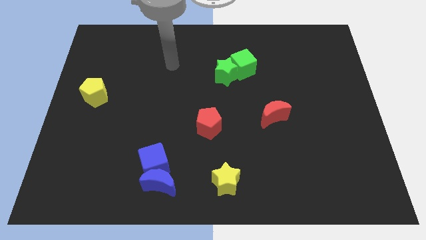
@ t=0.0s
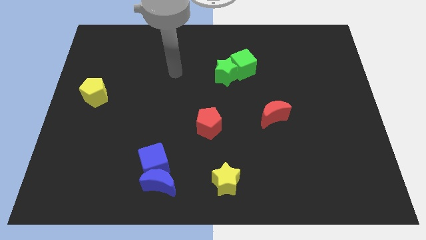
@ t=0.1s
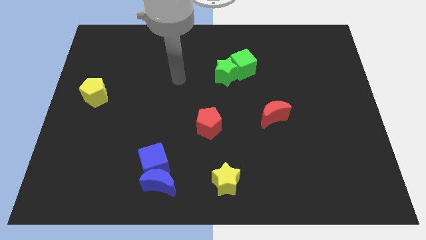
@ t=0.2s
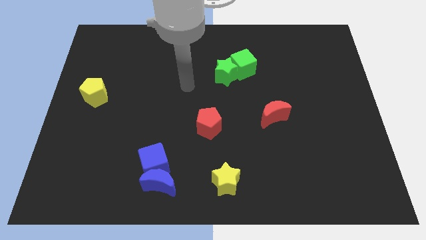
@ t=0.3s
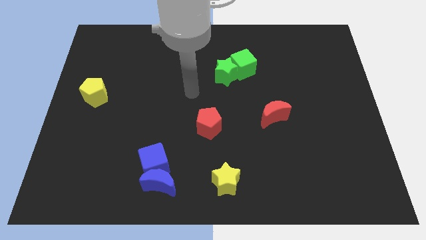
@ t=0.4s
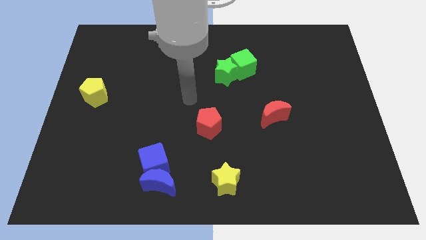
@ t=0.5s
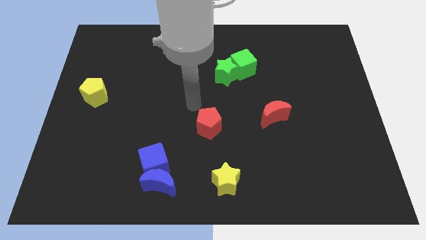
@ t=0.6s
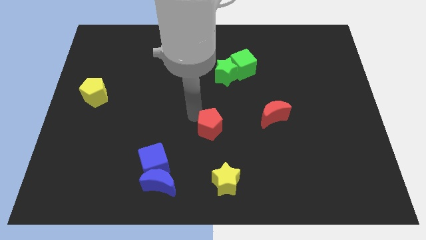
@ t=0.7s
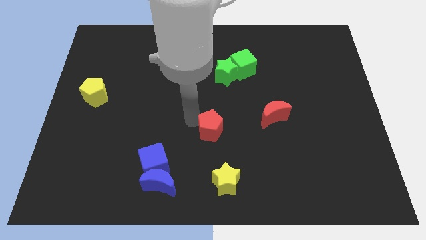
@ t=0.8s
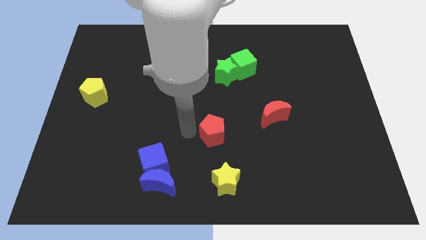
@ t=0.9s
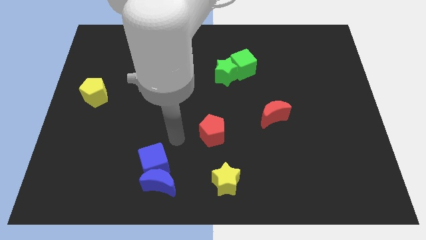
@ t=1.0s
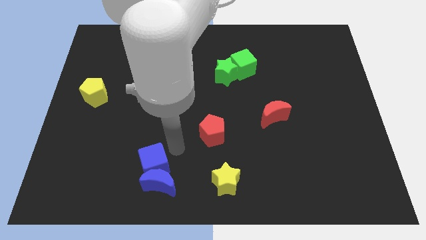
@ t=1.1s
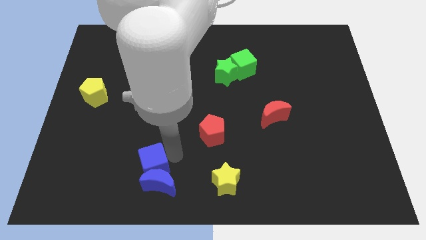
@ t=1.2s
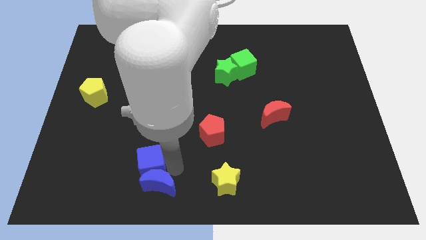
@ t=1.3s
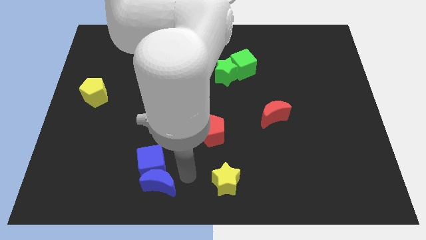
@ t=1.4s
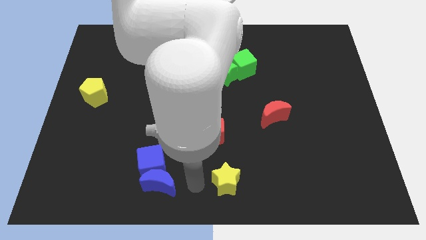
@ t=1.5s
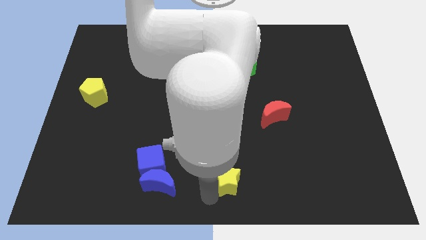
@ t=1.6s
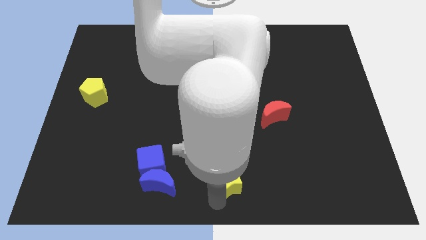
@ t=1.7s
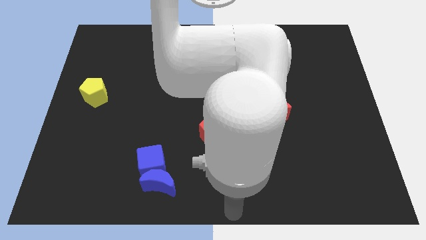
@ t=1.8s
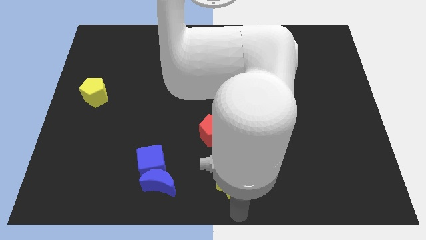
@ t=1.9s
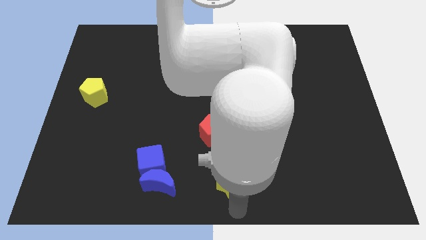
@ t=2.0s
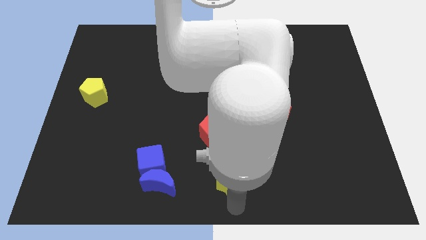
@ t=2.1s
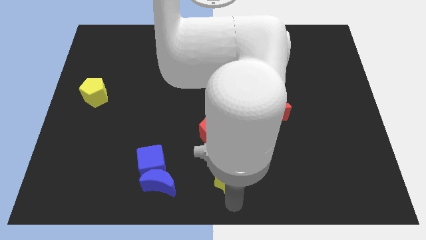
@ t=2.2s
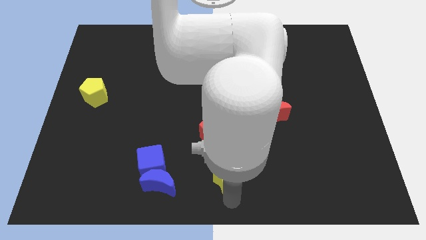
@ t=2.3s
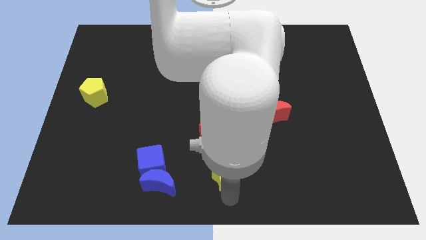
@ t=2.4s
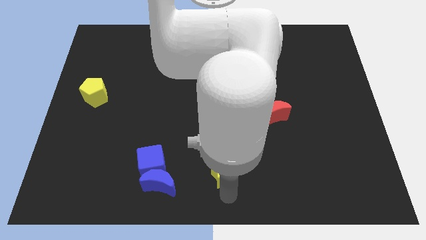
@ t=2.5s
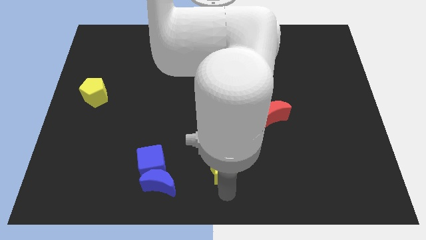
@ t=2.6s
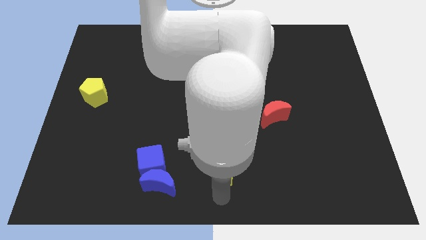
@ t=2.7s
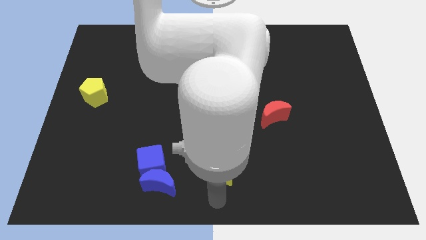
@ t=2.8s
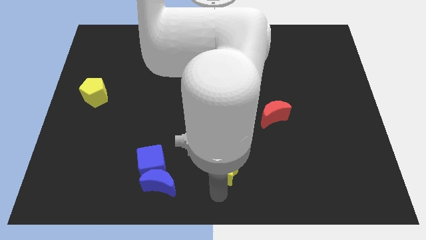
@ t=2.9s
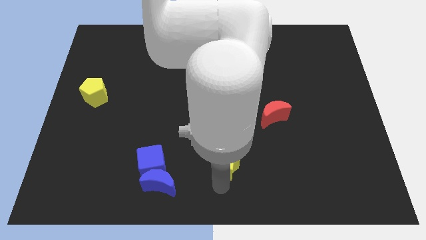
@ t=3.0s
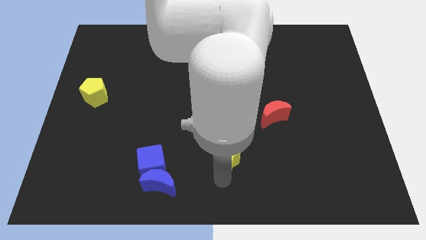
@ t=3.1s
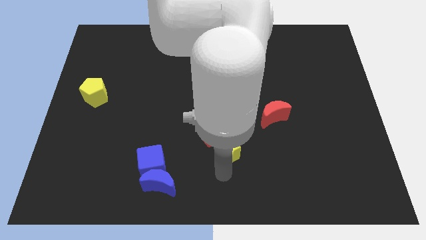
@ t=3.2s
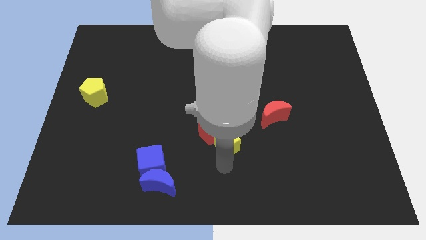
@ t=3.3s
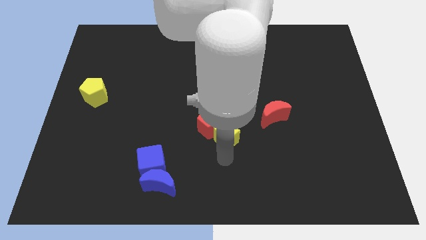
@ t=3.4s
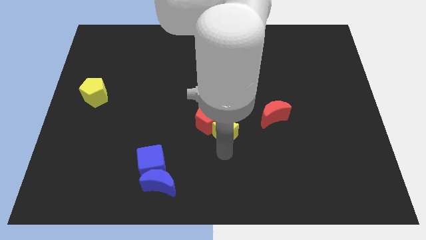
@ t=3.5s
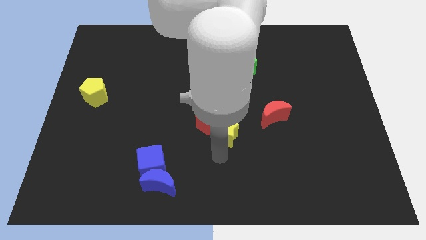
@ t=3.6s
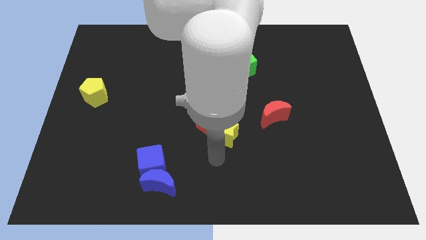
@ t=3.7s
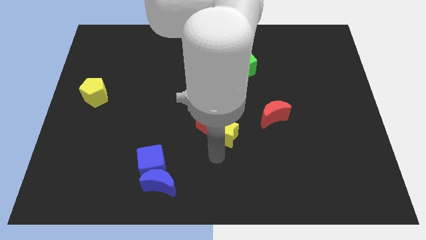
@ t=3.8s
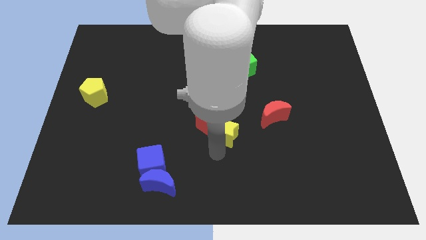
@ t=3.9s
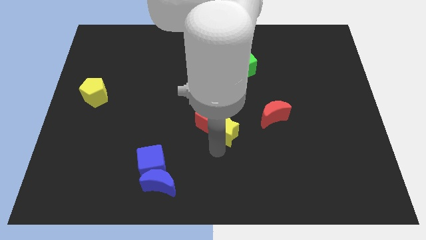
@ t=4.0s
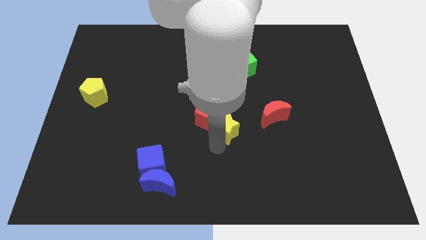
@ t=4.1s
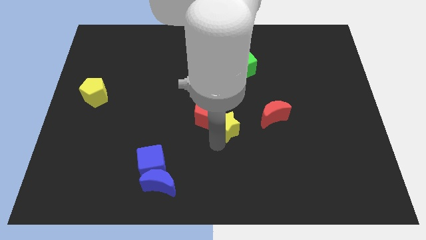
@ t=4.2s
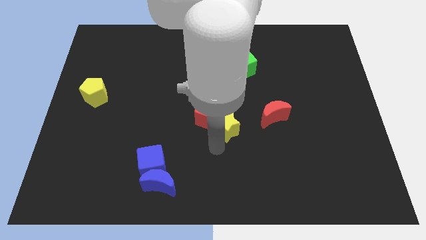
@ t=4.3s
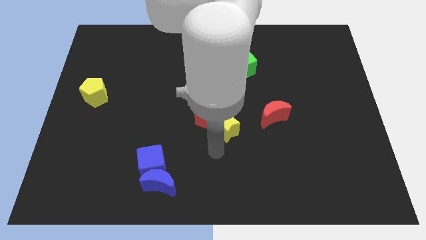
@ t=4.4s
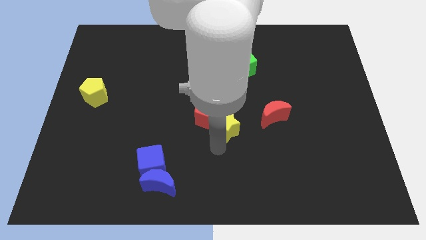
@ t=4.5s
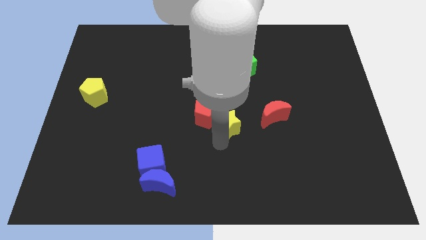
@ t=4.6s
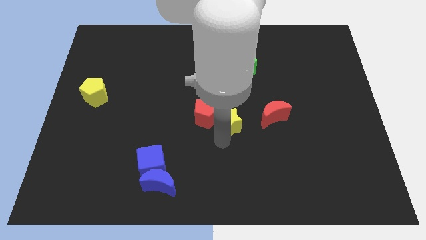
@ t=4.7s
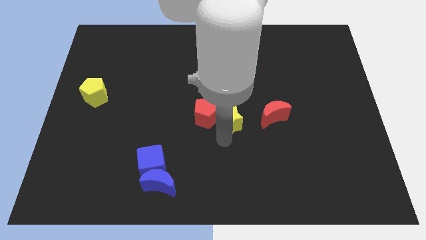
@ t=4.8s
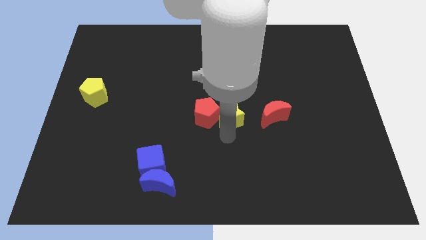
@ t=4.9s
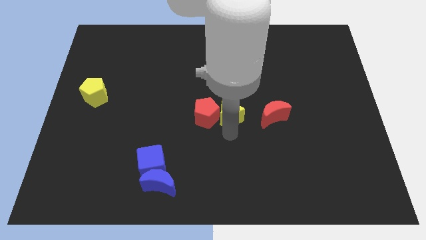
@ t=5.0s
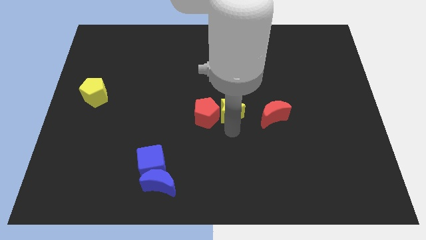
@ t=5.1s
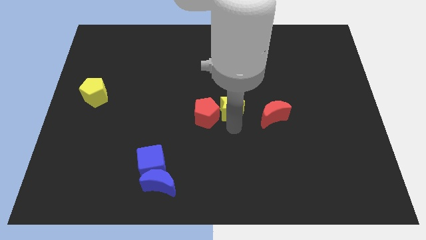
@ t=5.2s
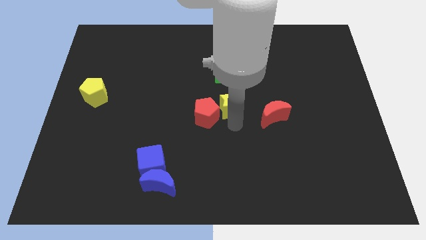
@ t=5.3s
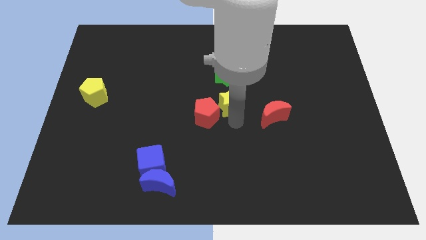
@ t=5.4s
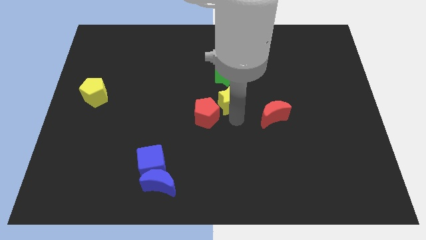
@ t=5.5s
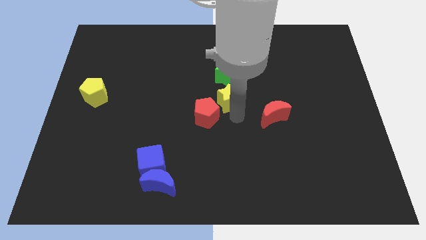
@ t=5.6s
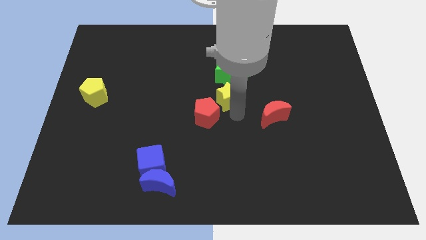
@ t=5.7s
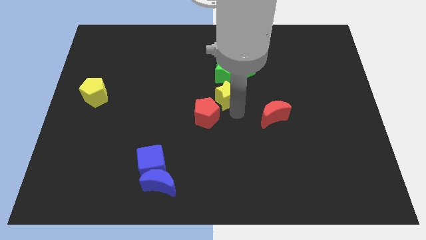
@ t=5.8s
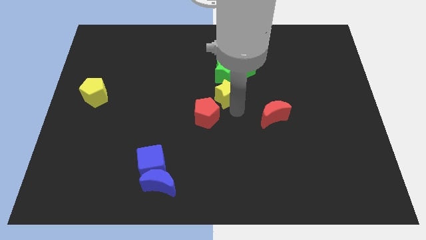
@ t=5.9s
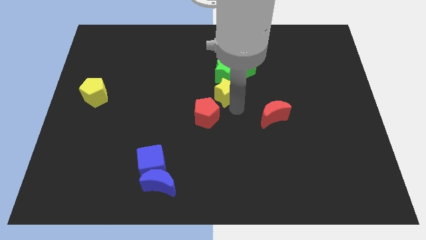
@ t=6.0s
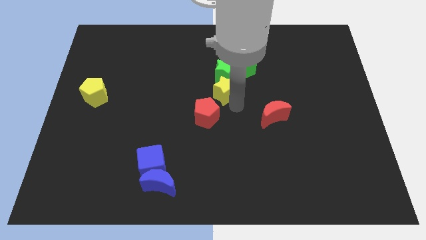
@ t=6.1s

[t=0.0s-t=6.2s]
push the yellow star to the green star
